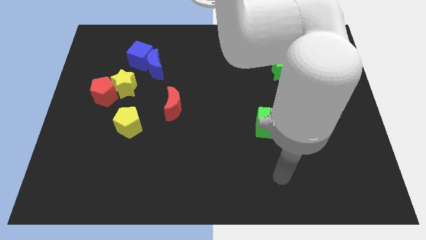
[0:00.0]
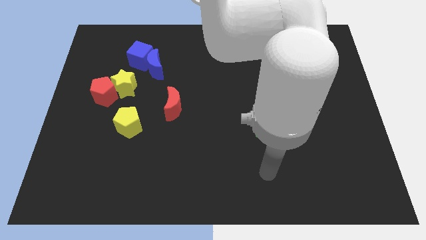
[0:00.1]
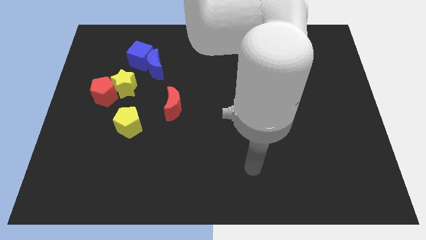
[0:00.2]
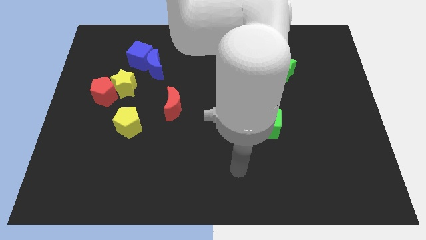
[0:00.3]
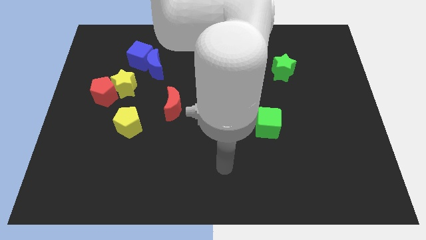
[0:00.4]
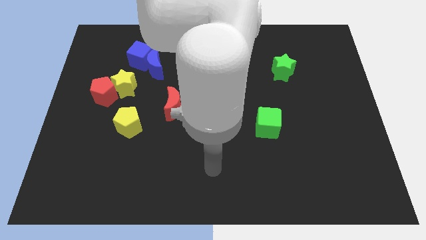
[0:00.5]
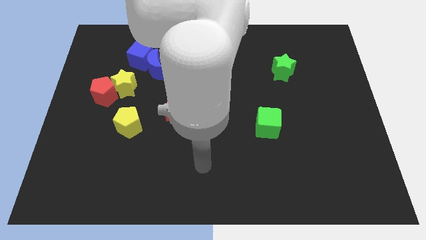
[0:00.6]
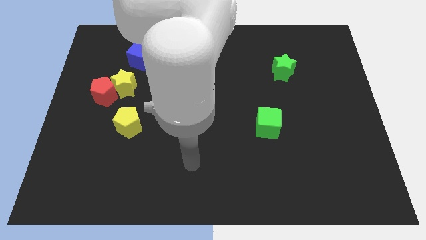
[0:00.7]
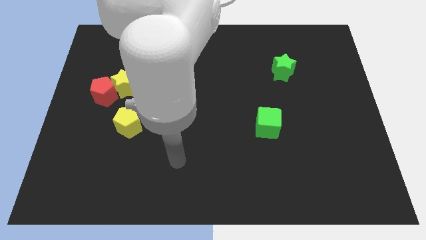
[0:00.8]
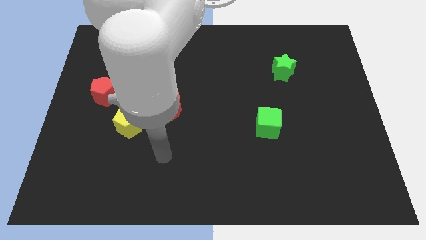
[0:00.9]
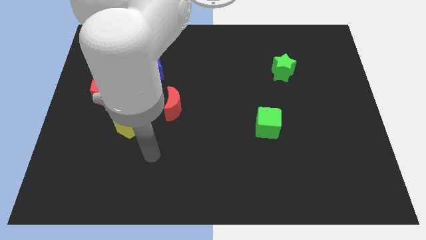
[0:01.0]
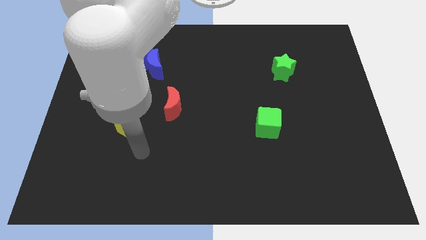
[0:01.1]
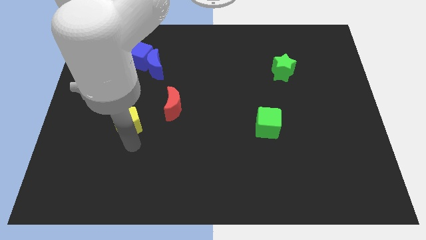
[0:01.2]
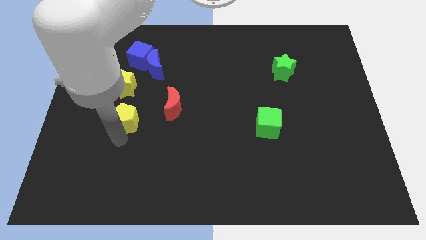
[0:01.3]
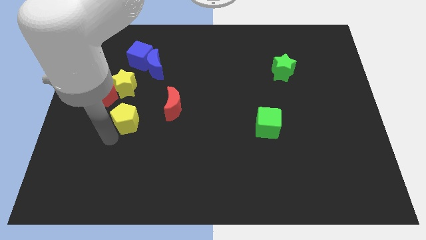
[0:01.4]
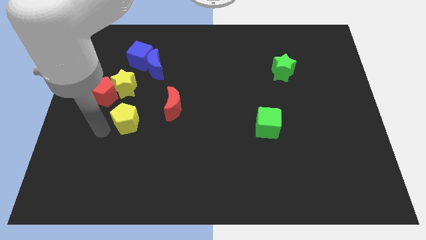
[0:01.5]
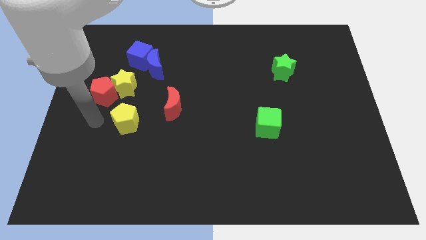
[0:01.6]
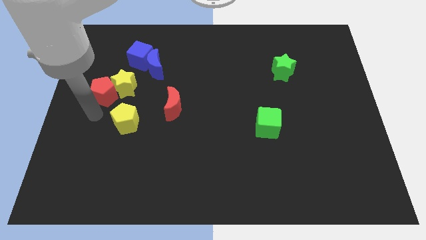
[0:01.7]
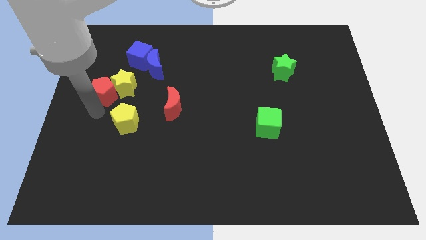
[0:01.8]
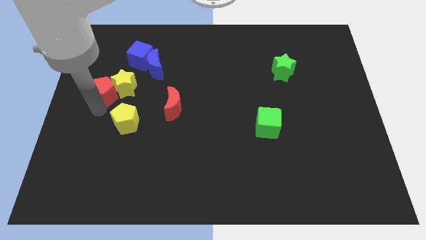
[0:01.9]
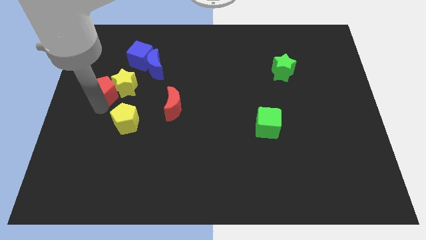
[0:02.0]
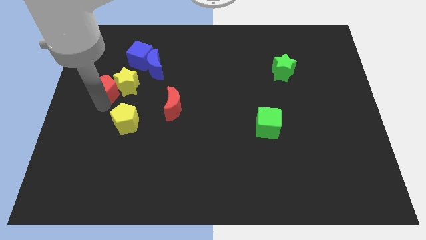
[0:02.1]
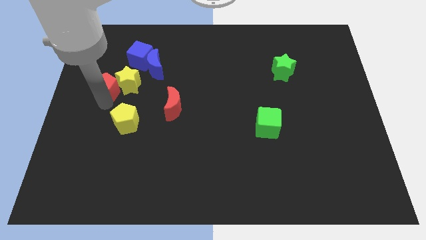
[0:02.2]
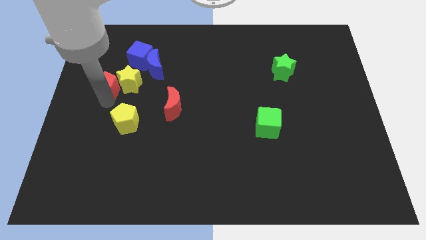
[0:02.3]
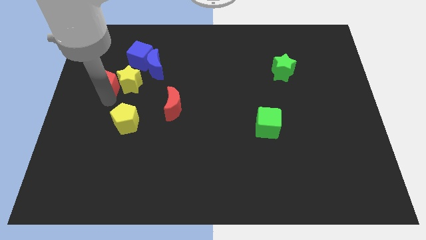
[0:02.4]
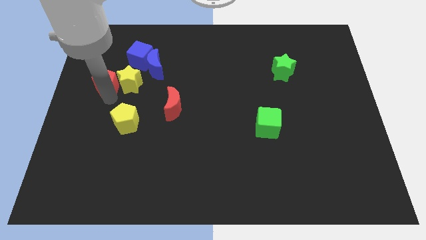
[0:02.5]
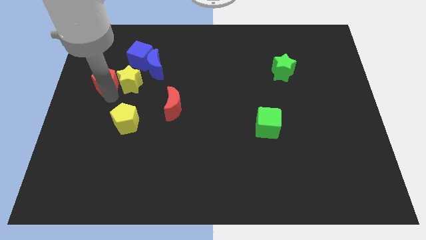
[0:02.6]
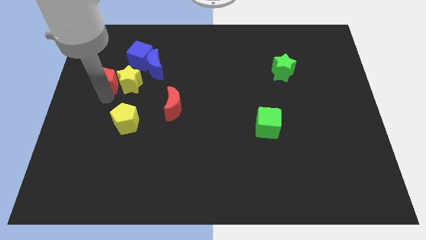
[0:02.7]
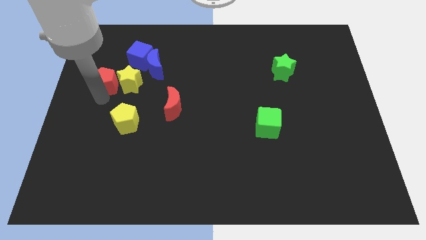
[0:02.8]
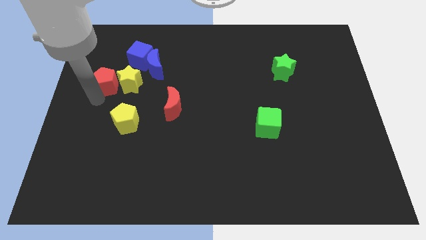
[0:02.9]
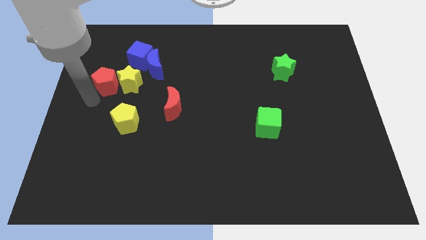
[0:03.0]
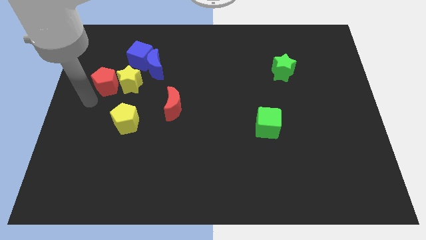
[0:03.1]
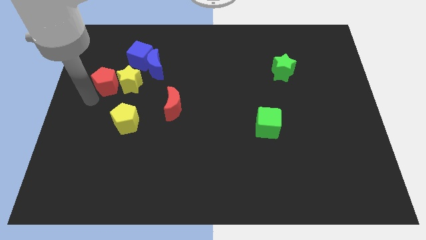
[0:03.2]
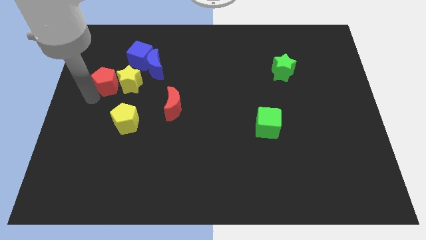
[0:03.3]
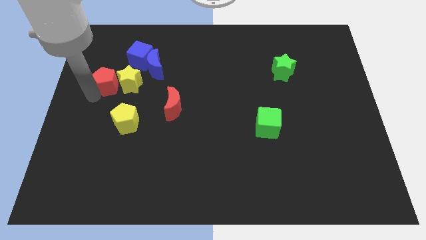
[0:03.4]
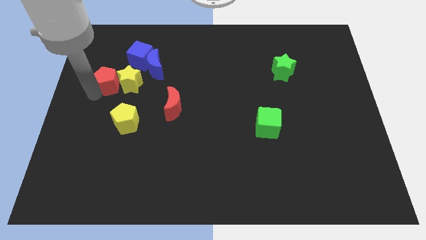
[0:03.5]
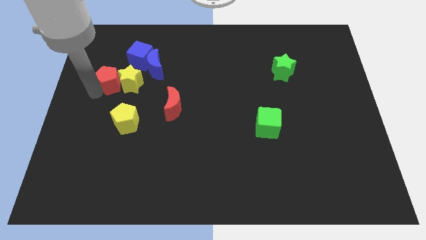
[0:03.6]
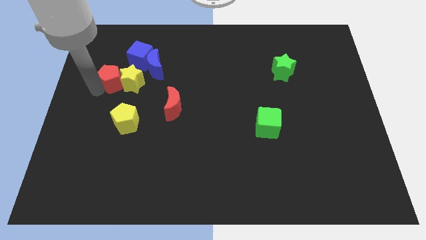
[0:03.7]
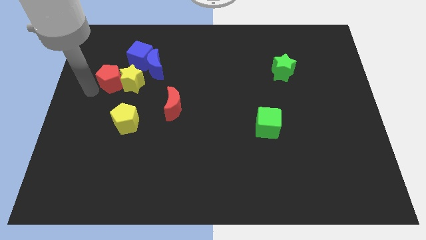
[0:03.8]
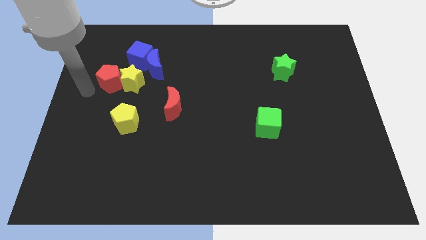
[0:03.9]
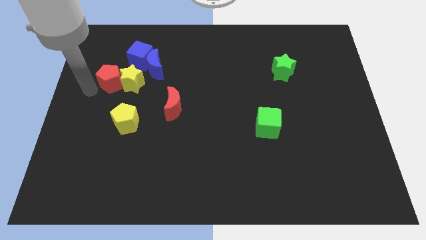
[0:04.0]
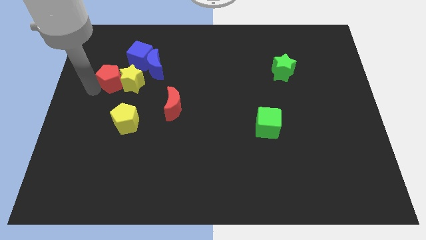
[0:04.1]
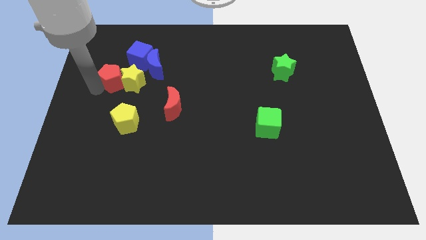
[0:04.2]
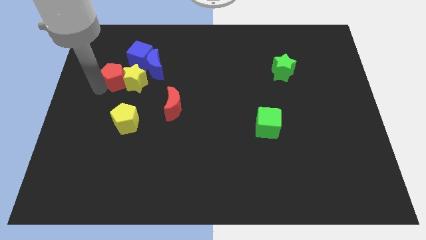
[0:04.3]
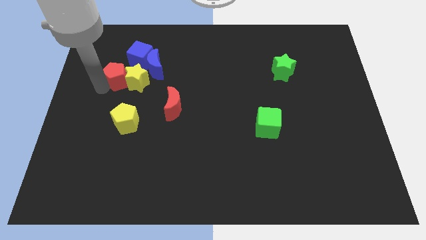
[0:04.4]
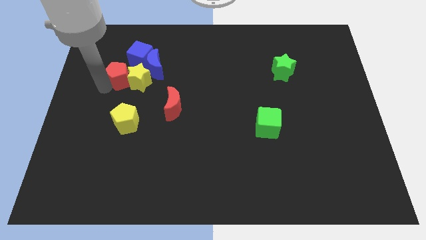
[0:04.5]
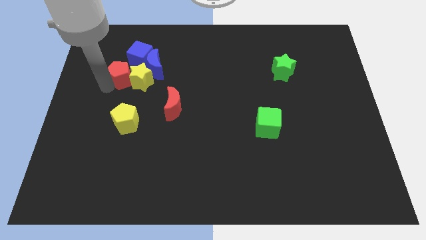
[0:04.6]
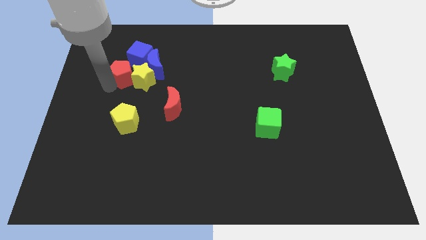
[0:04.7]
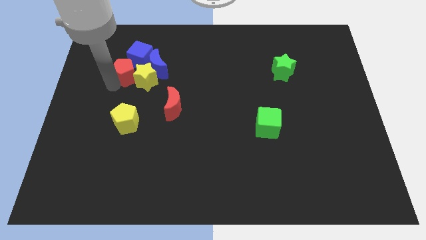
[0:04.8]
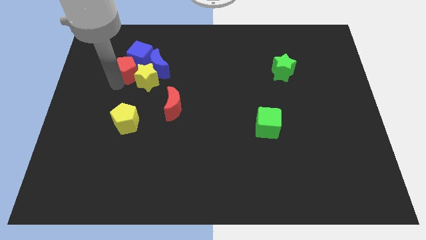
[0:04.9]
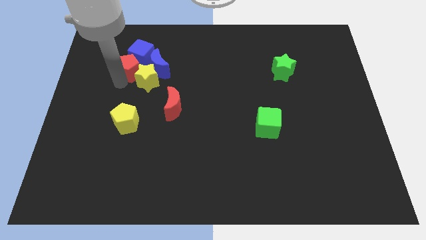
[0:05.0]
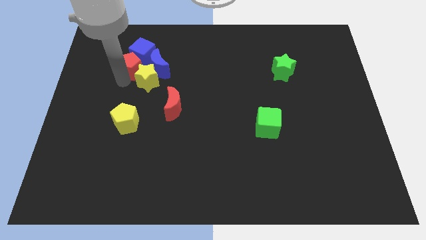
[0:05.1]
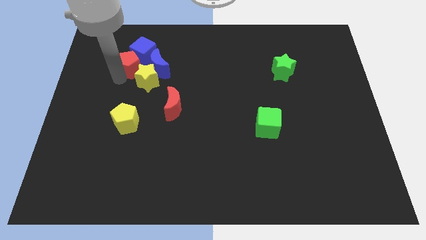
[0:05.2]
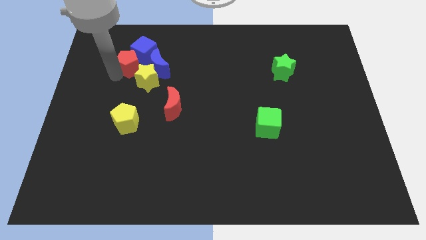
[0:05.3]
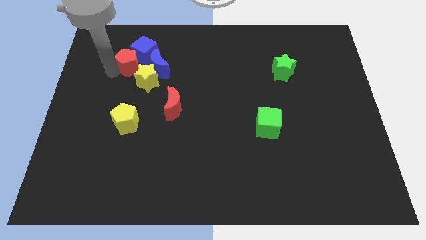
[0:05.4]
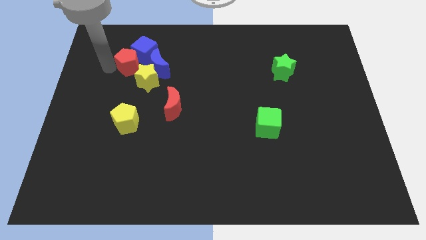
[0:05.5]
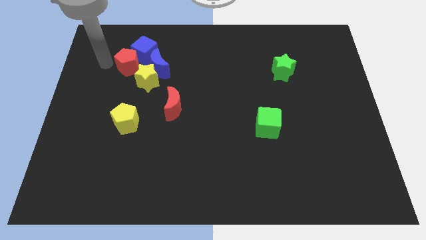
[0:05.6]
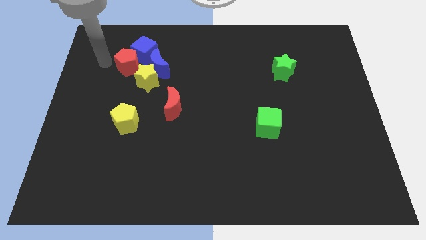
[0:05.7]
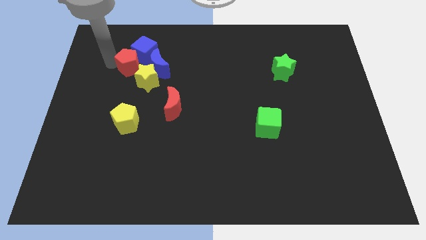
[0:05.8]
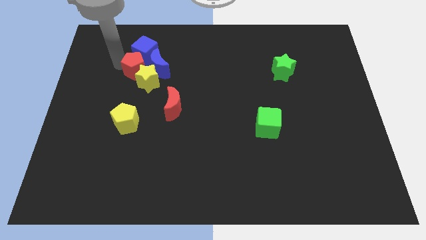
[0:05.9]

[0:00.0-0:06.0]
push the red pentagon close to the blue moon

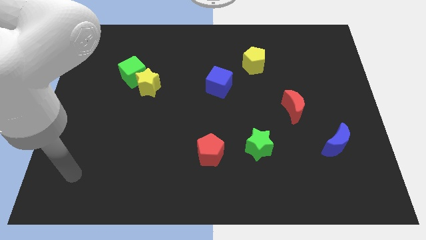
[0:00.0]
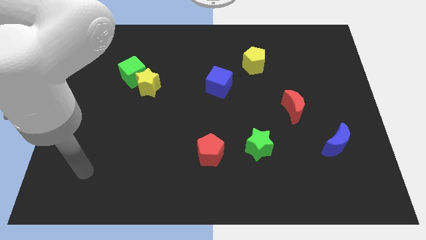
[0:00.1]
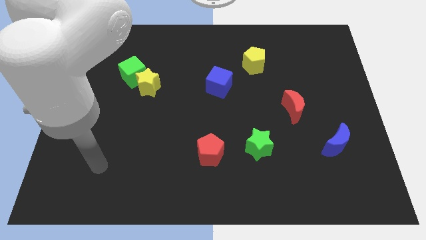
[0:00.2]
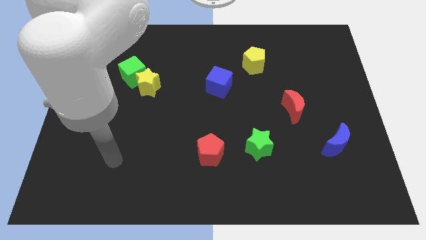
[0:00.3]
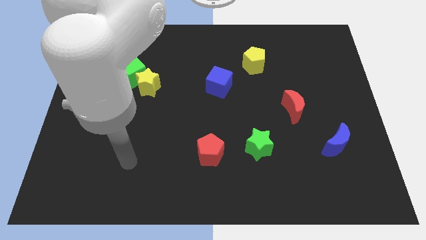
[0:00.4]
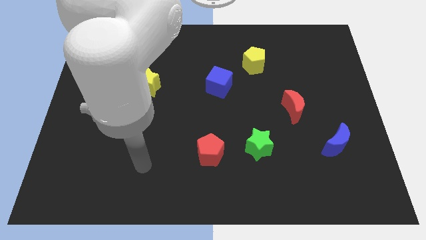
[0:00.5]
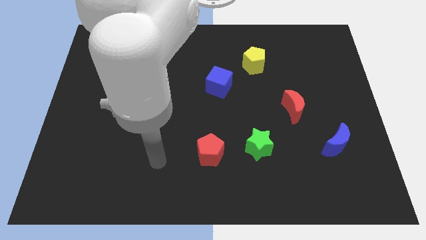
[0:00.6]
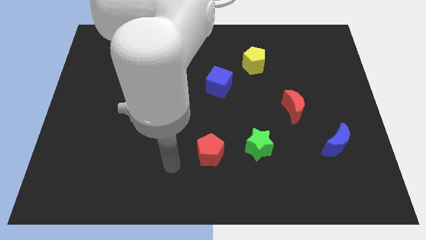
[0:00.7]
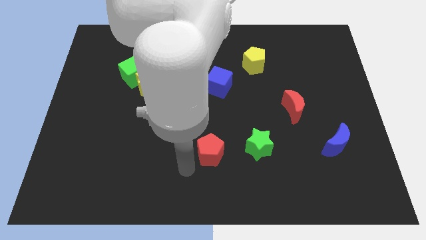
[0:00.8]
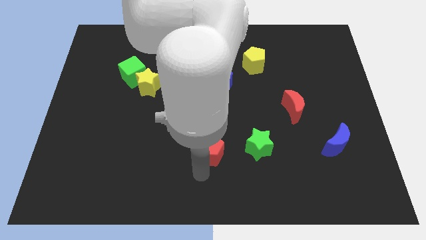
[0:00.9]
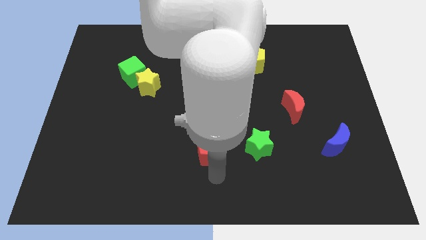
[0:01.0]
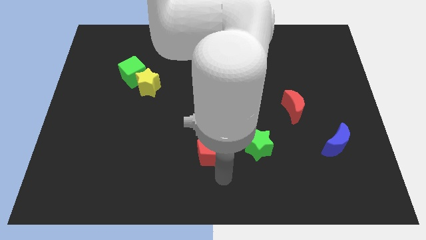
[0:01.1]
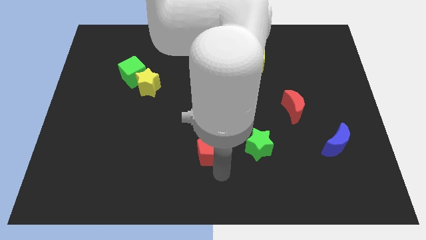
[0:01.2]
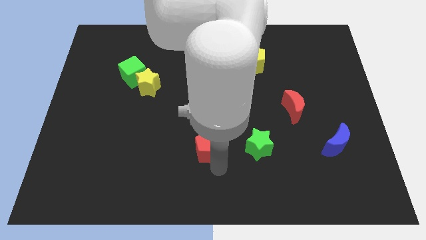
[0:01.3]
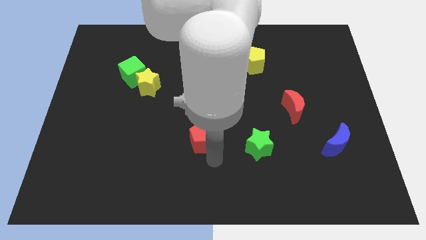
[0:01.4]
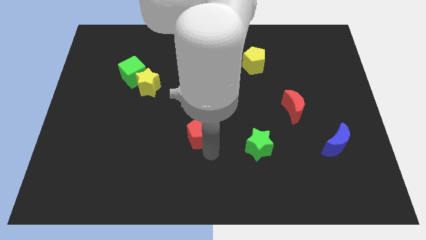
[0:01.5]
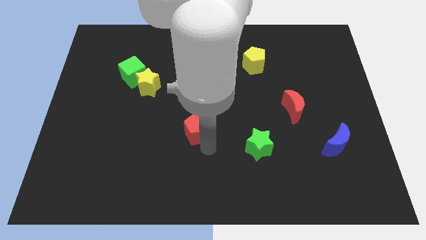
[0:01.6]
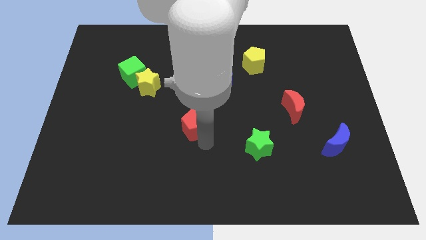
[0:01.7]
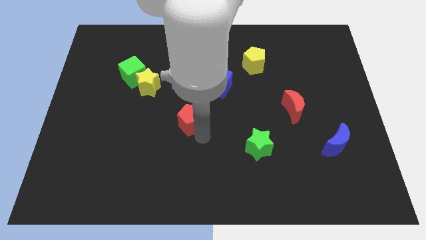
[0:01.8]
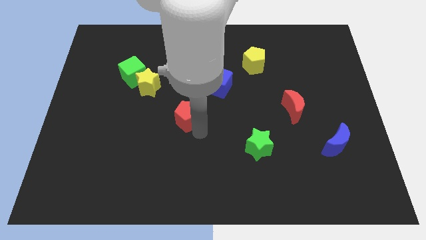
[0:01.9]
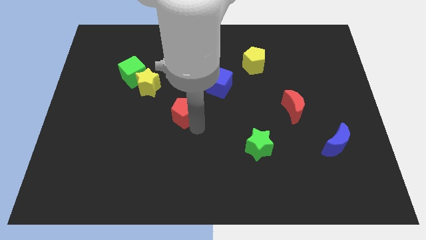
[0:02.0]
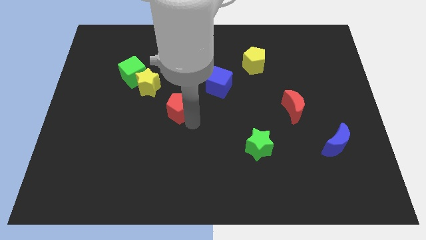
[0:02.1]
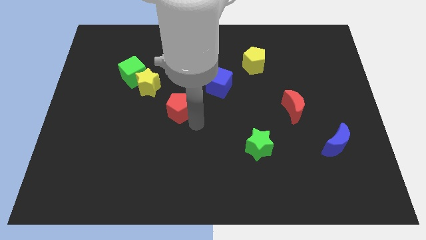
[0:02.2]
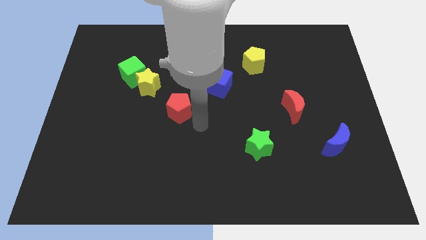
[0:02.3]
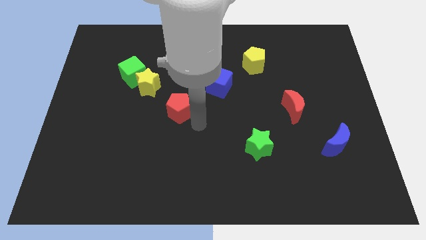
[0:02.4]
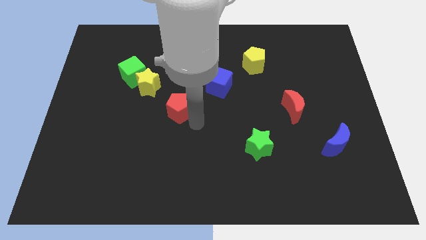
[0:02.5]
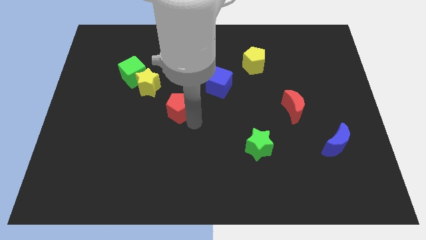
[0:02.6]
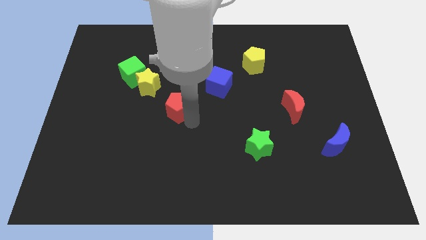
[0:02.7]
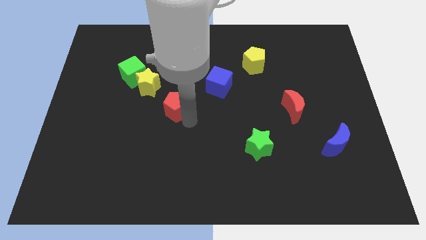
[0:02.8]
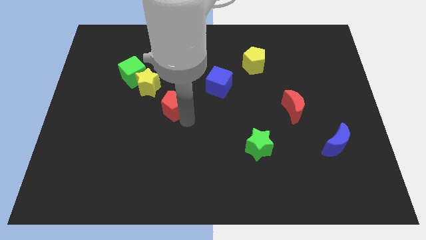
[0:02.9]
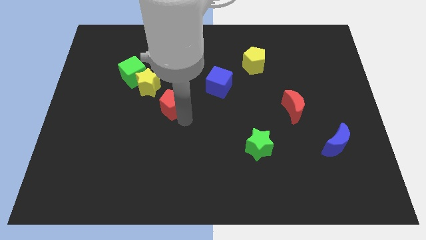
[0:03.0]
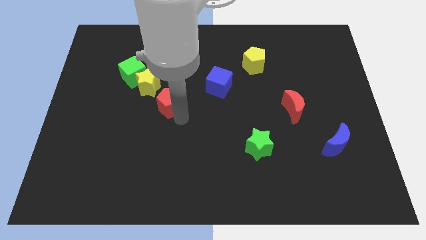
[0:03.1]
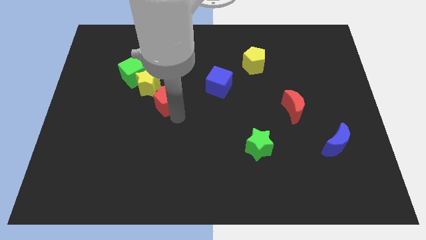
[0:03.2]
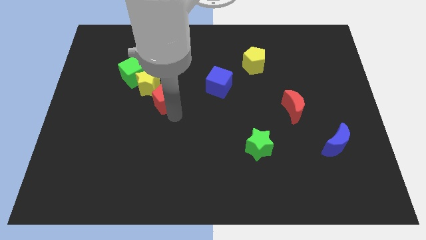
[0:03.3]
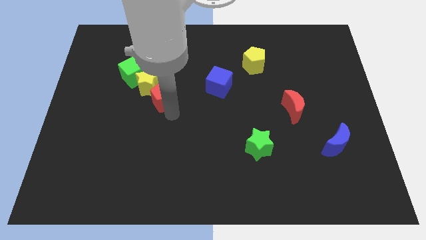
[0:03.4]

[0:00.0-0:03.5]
slide the red pentagon towards the yellow star
